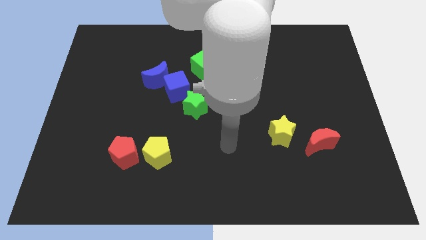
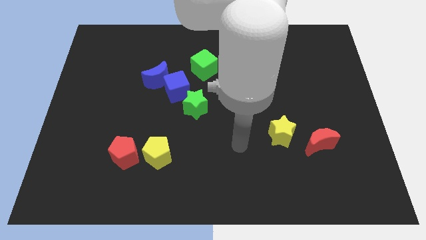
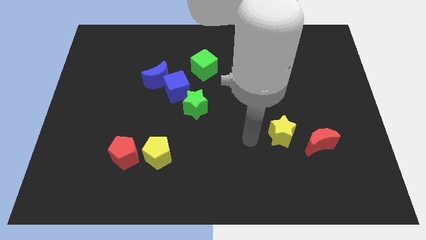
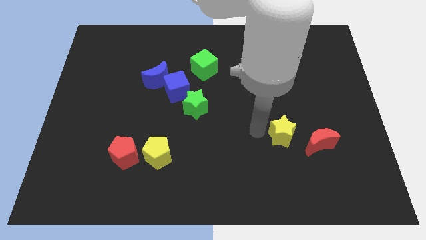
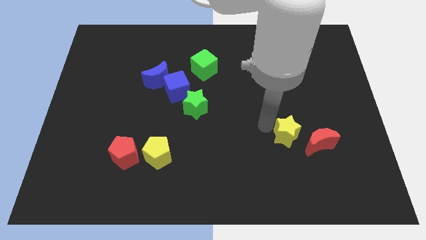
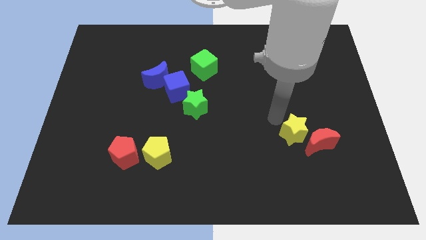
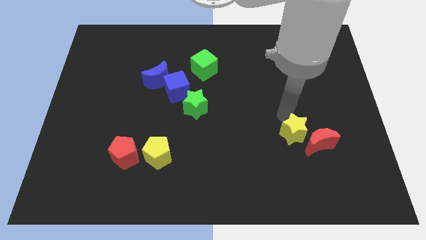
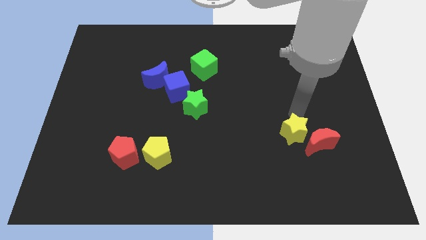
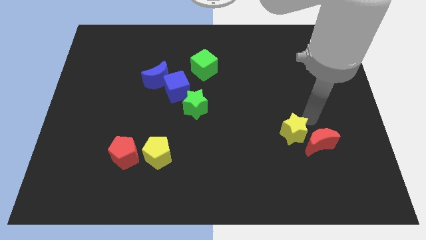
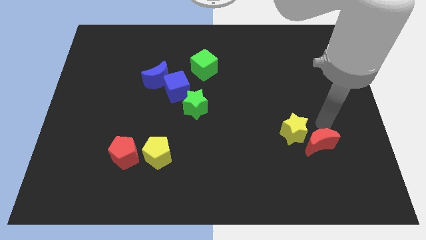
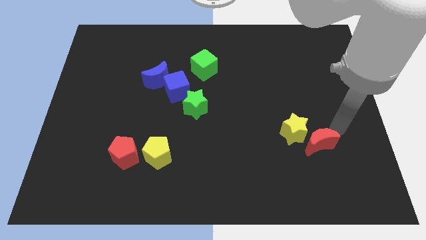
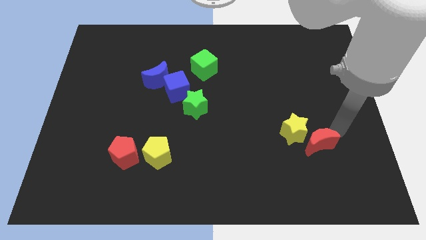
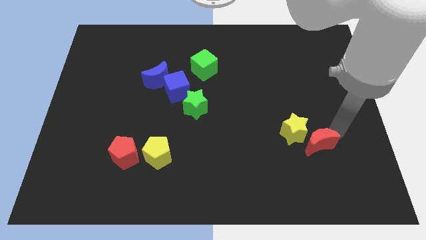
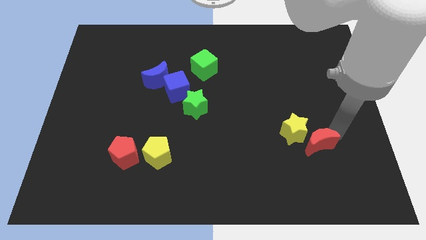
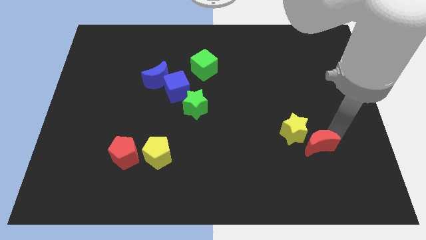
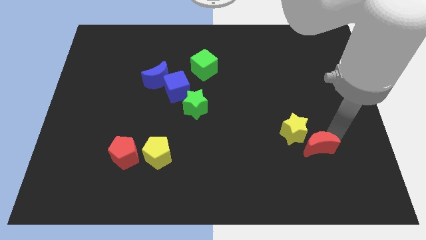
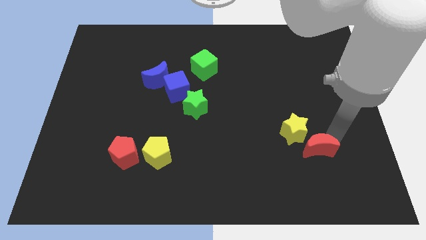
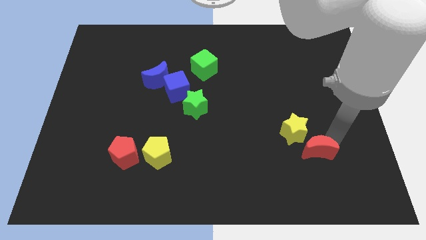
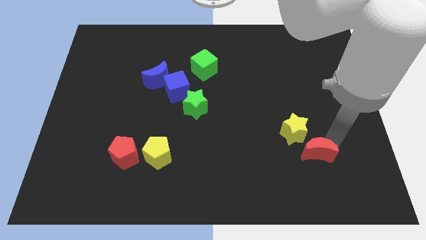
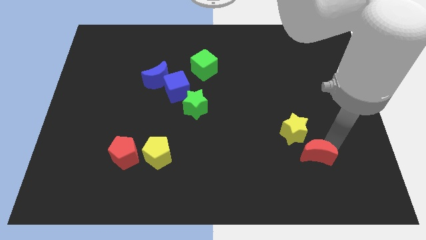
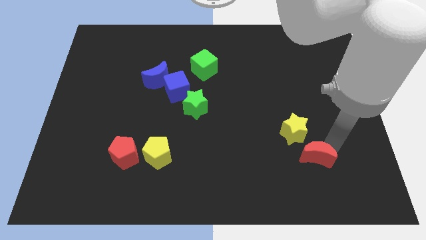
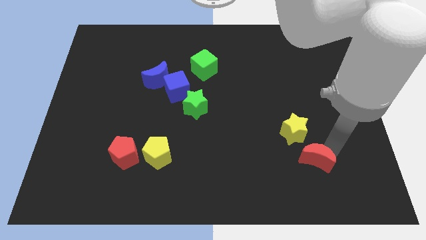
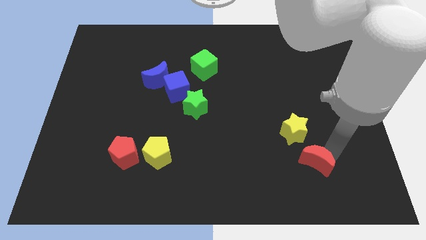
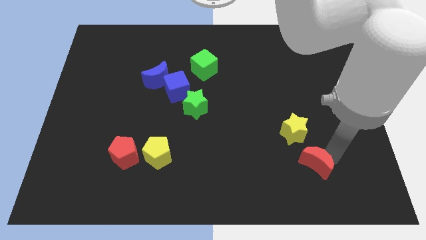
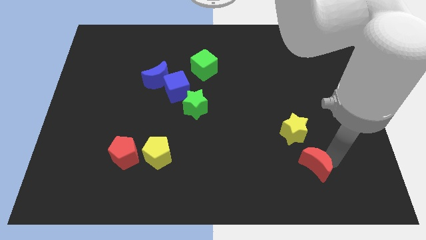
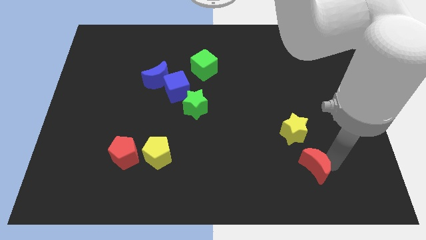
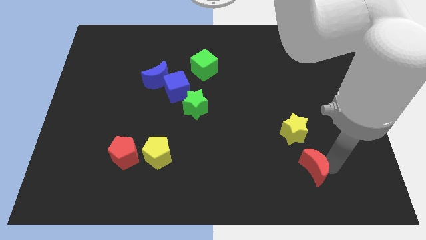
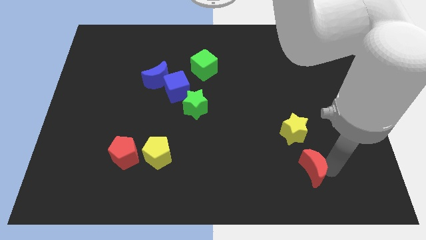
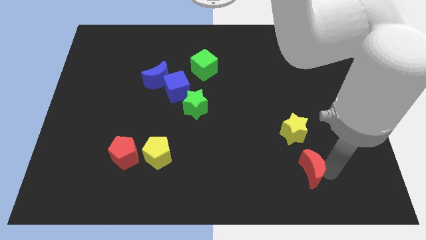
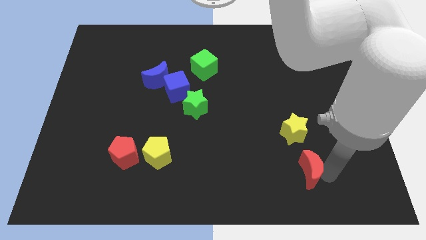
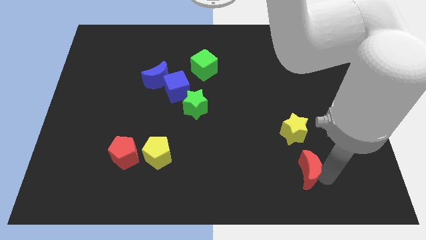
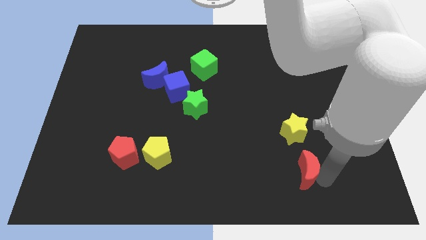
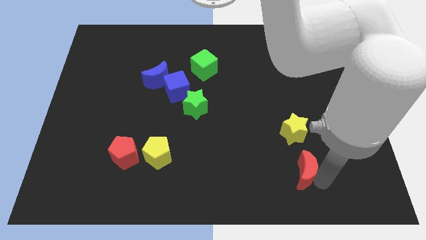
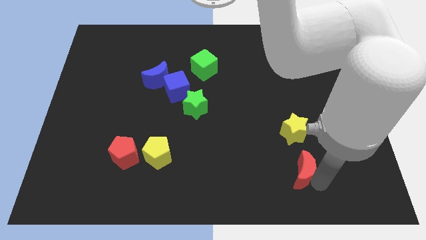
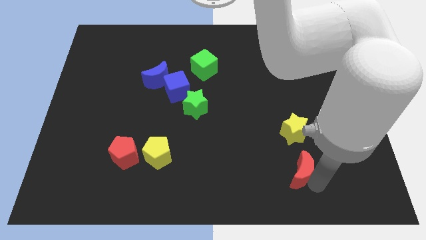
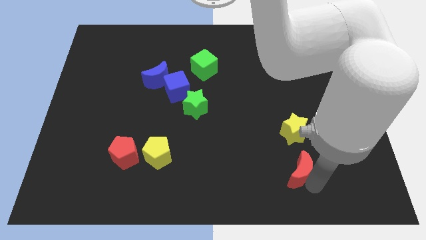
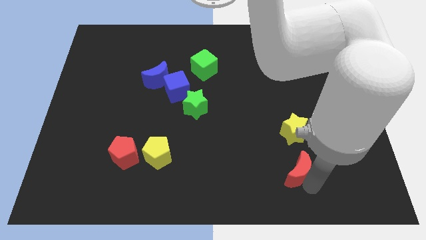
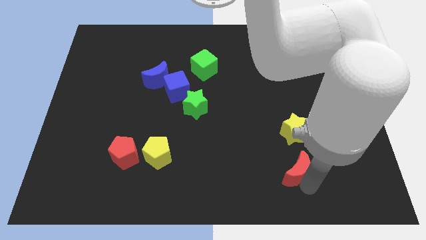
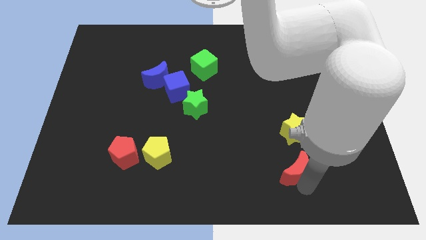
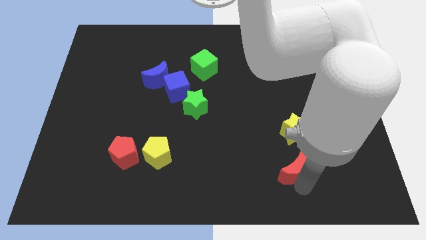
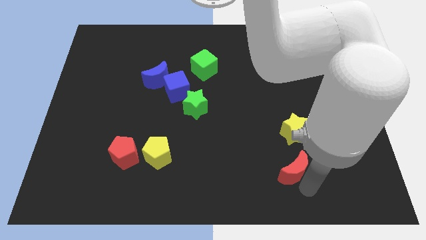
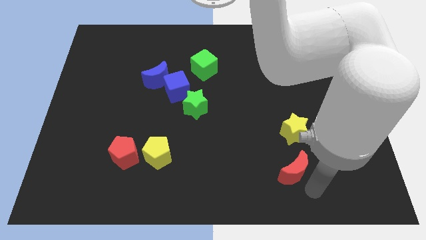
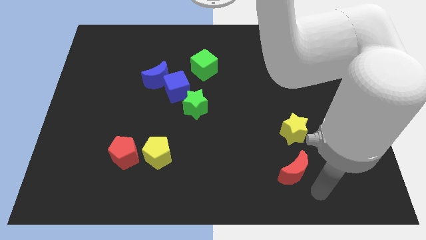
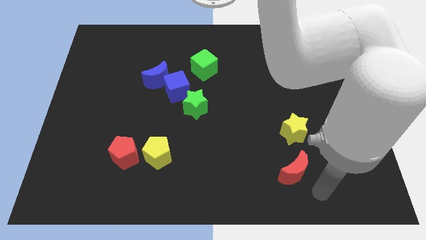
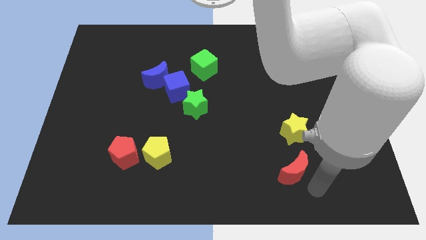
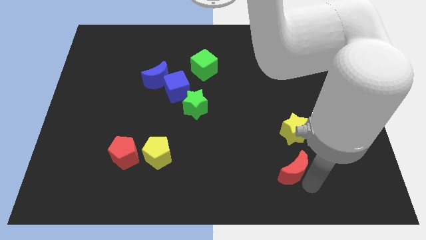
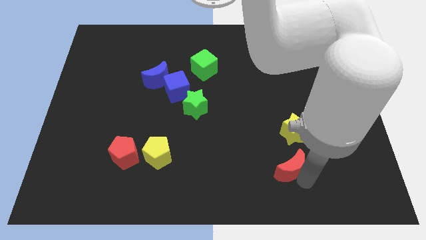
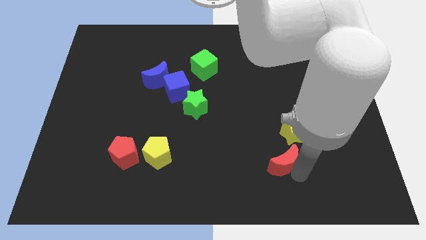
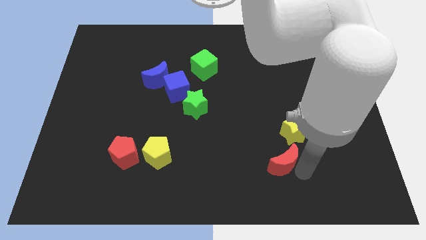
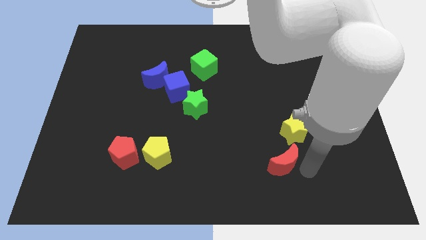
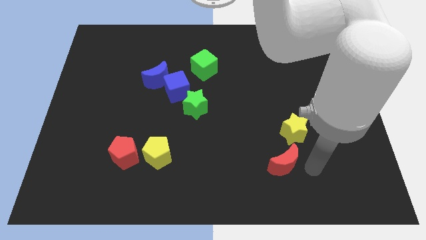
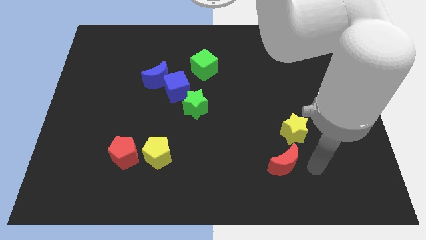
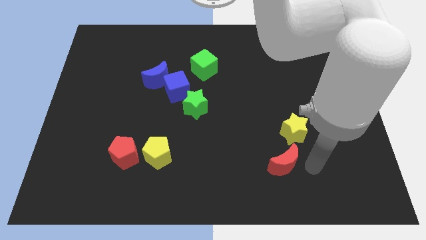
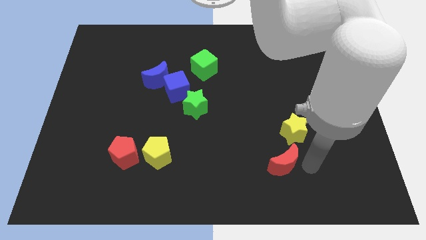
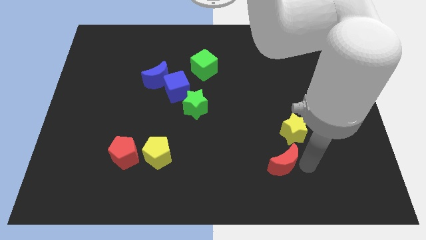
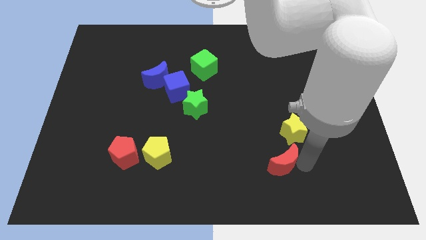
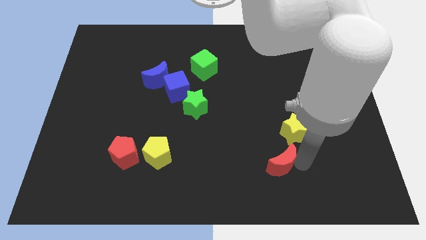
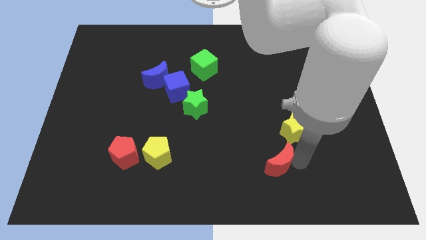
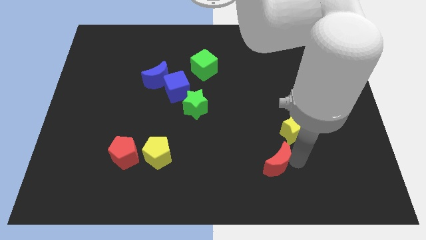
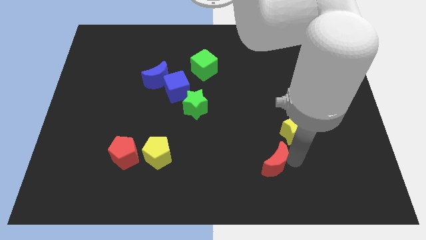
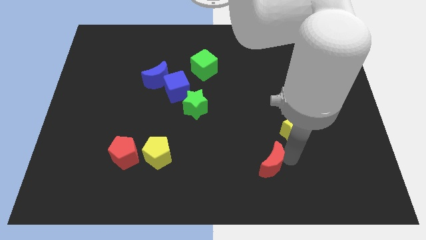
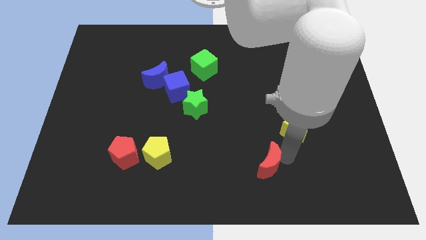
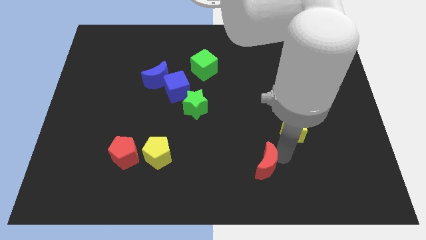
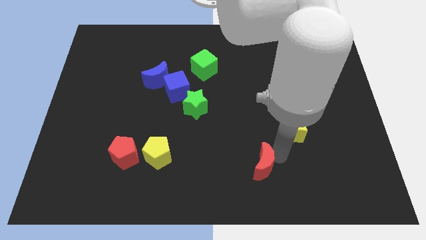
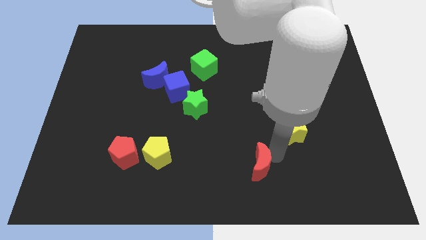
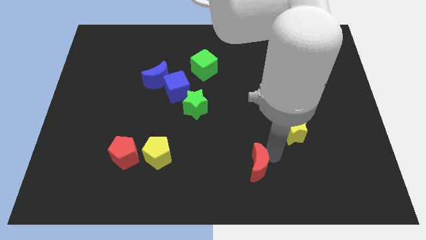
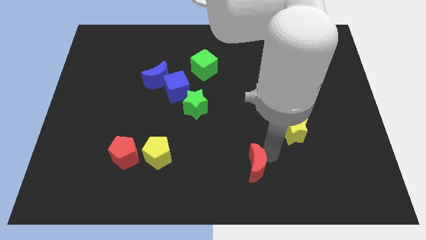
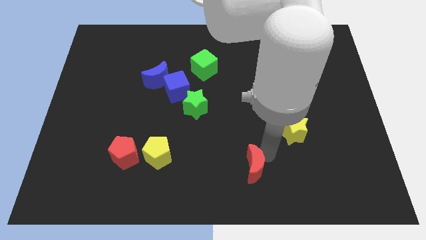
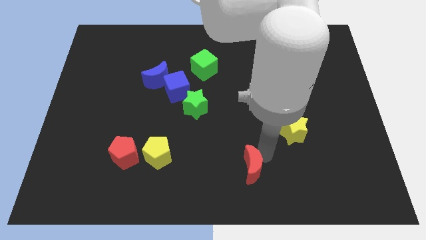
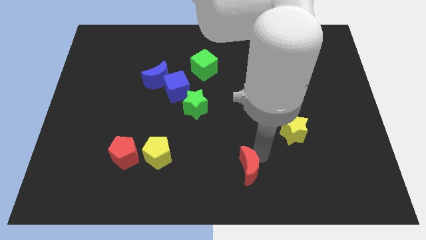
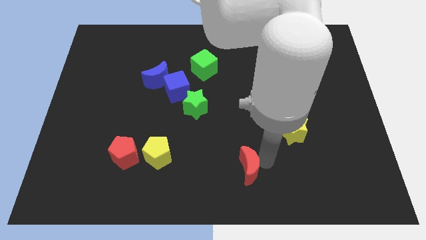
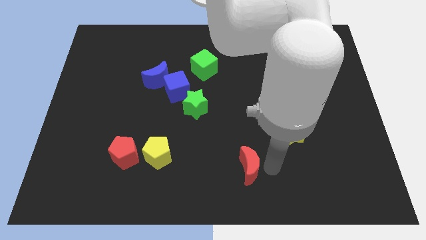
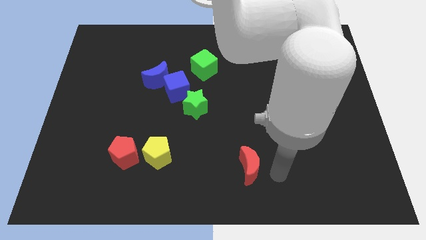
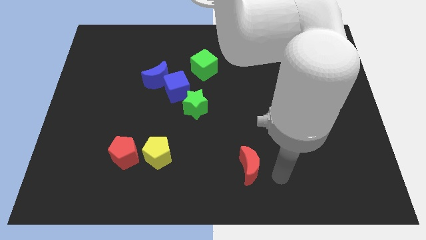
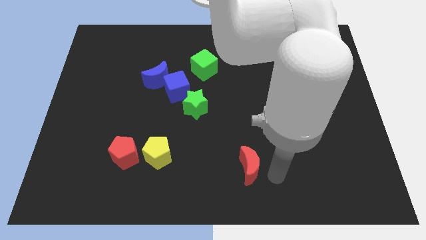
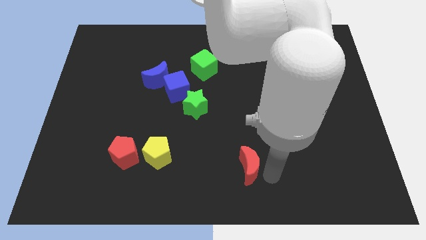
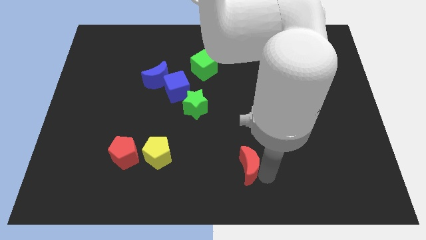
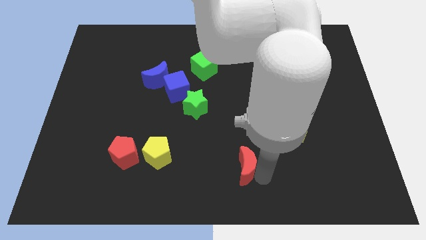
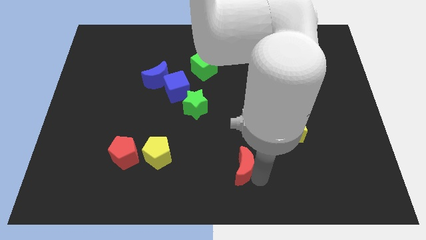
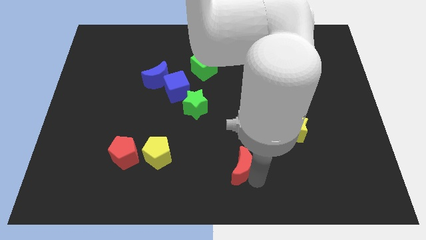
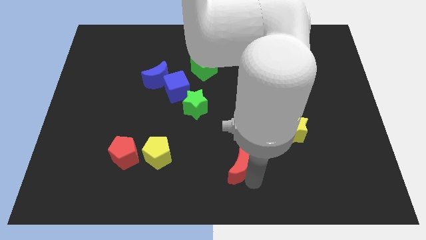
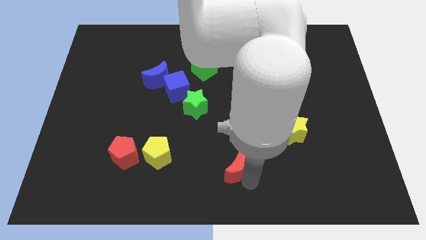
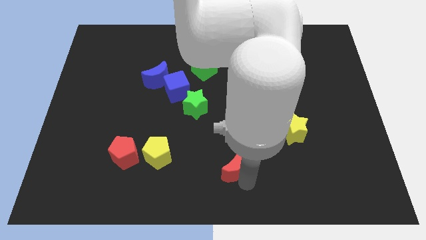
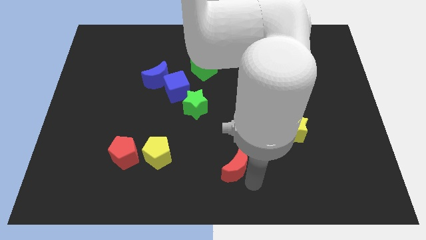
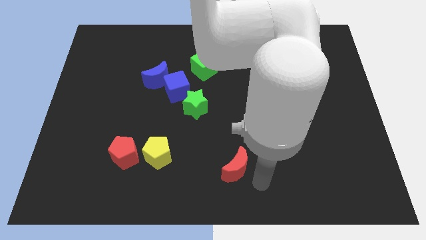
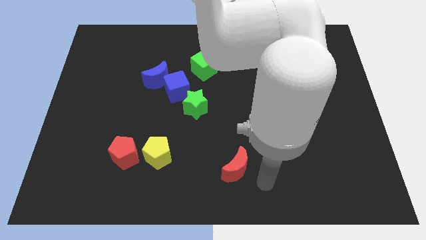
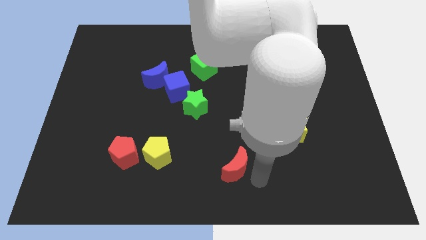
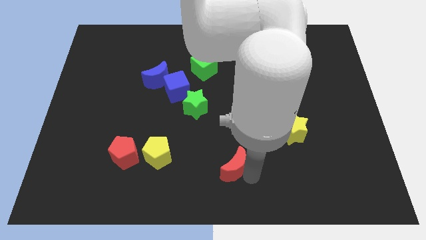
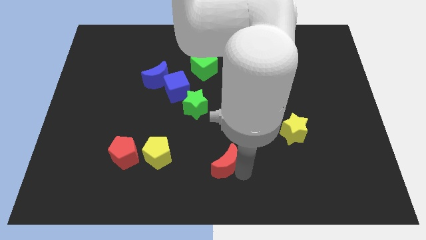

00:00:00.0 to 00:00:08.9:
put the red moon right of the yellow pentagon
